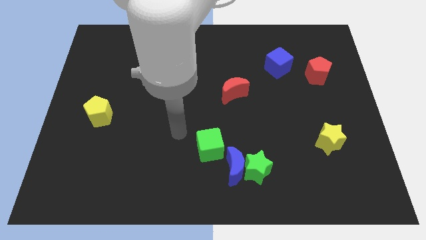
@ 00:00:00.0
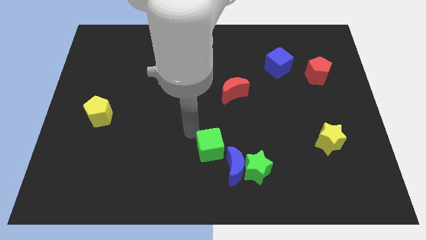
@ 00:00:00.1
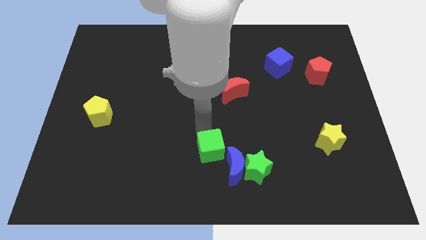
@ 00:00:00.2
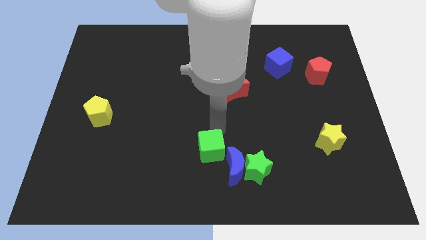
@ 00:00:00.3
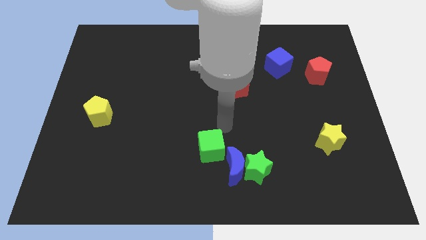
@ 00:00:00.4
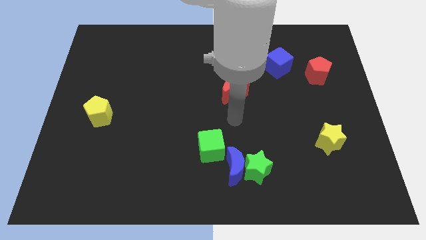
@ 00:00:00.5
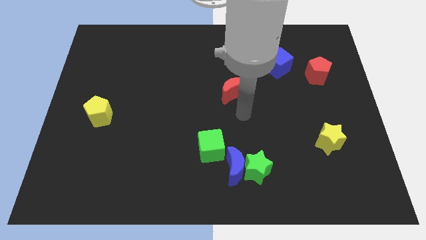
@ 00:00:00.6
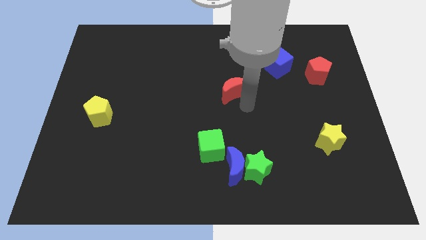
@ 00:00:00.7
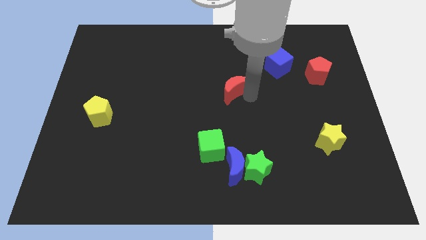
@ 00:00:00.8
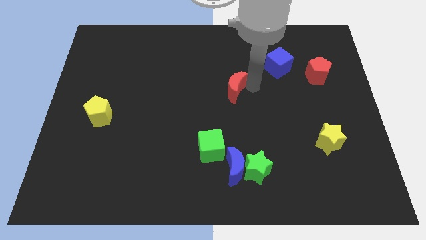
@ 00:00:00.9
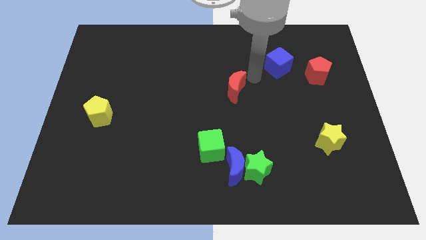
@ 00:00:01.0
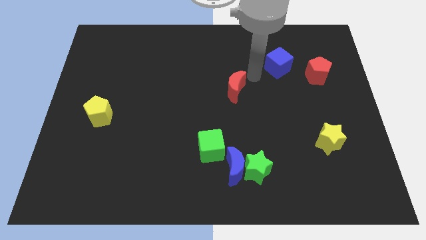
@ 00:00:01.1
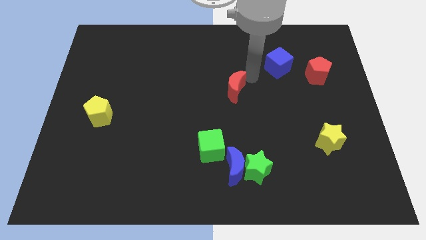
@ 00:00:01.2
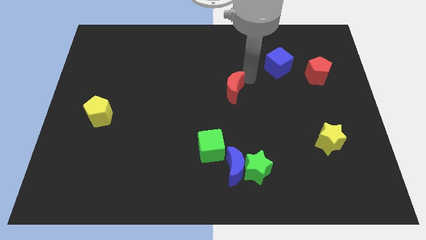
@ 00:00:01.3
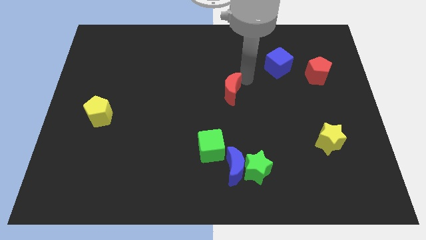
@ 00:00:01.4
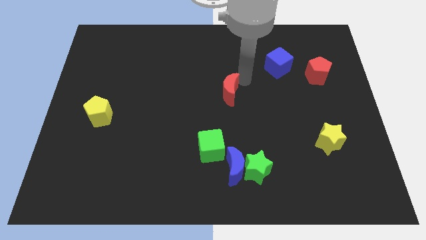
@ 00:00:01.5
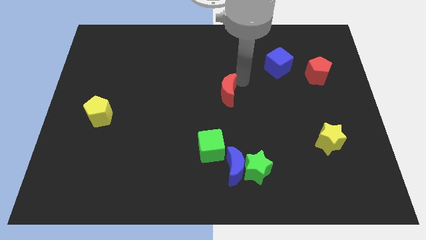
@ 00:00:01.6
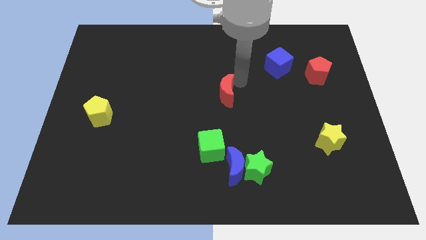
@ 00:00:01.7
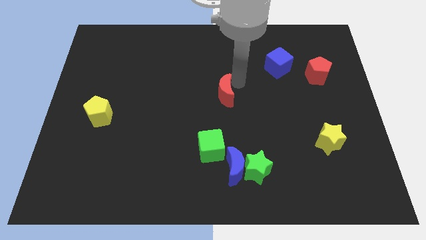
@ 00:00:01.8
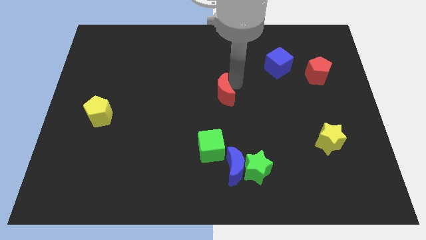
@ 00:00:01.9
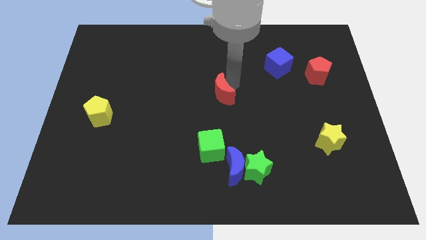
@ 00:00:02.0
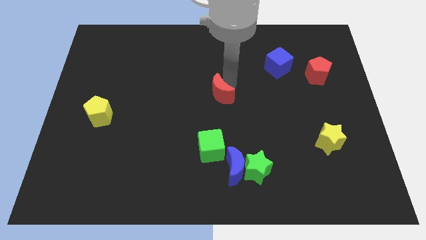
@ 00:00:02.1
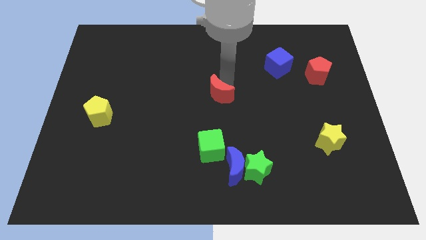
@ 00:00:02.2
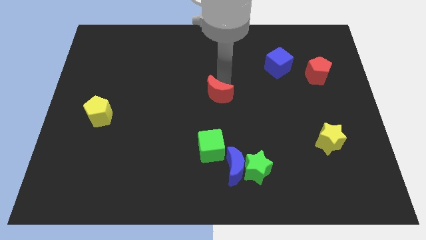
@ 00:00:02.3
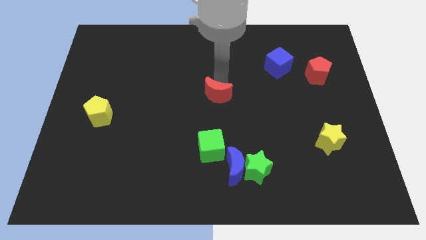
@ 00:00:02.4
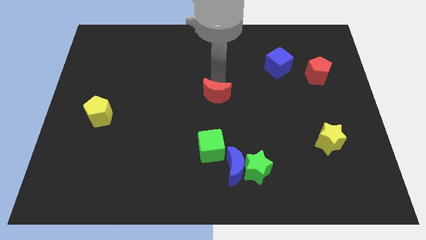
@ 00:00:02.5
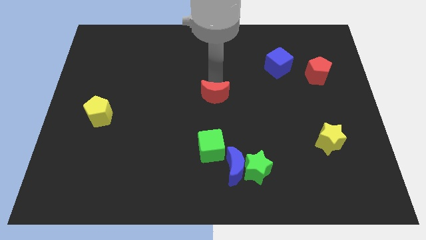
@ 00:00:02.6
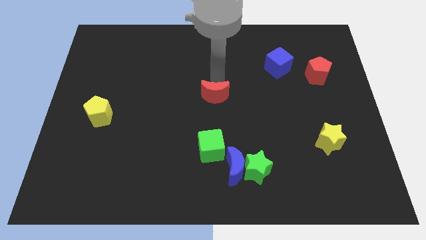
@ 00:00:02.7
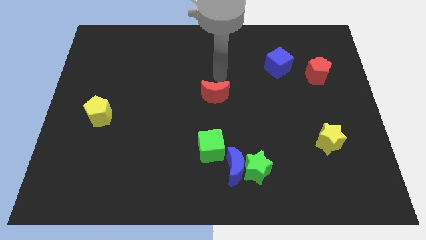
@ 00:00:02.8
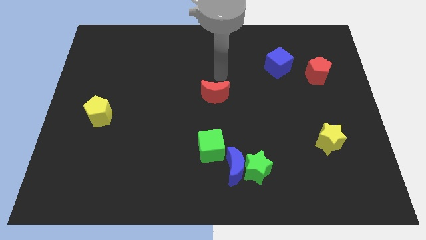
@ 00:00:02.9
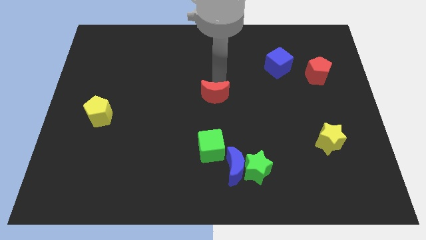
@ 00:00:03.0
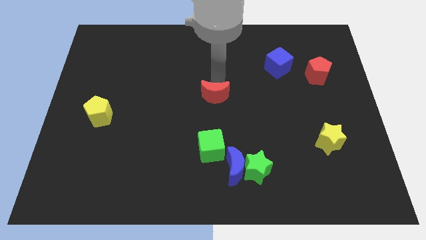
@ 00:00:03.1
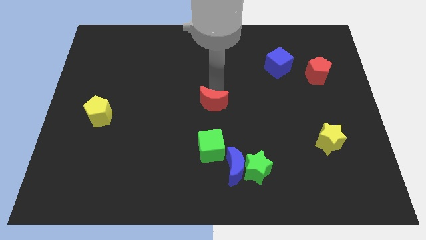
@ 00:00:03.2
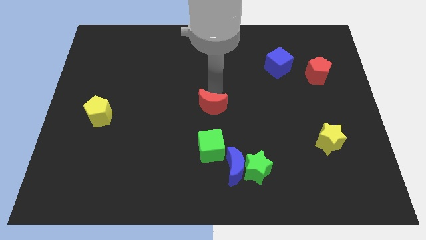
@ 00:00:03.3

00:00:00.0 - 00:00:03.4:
move the red moon diagonally down and to the left a little

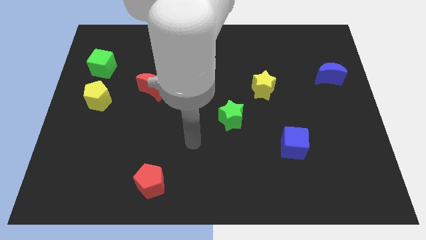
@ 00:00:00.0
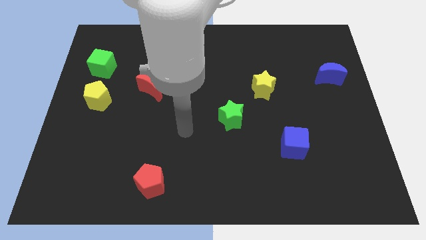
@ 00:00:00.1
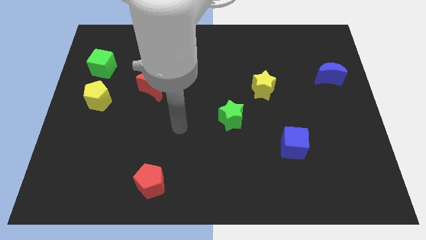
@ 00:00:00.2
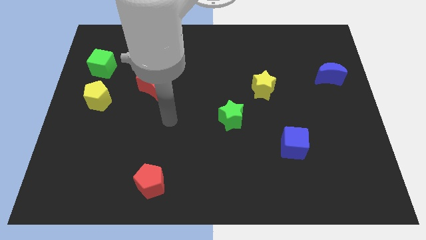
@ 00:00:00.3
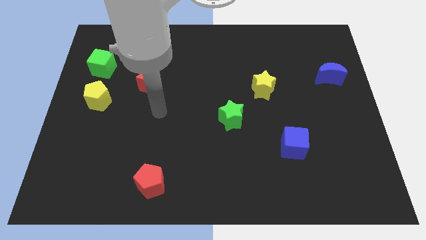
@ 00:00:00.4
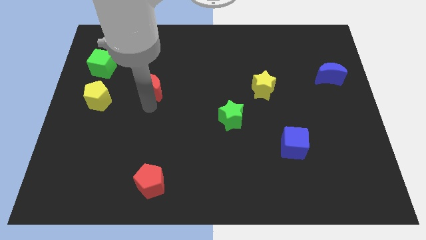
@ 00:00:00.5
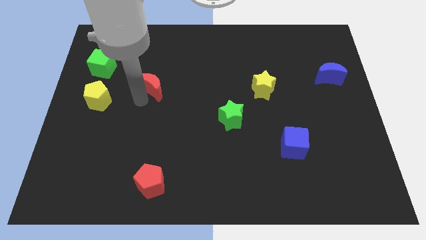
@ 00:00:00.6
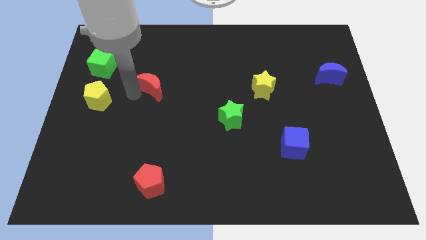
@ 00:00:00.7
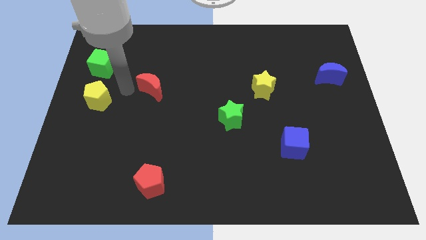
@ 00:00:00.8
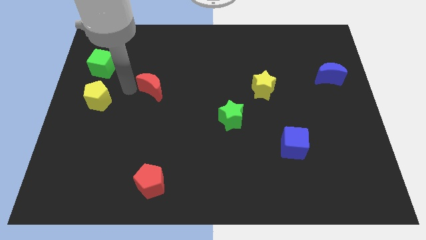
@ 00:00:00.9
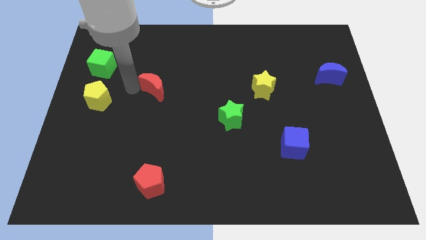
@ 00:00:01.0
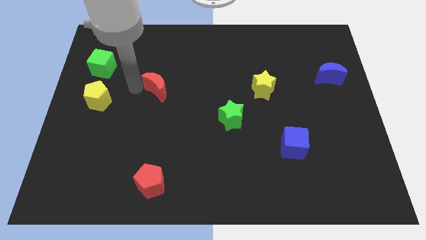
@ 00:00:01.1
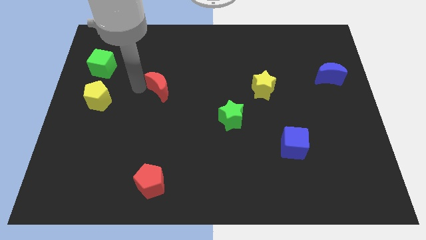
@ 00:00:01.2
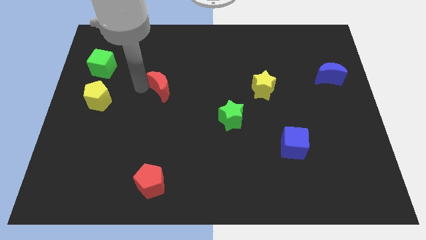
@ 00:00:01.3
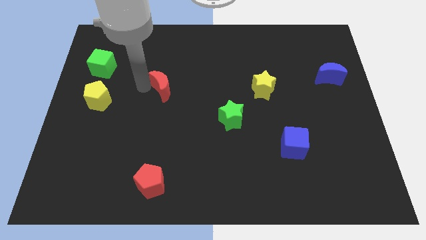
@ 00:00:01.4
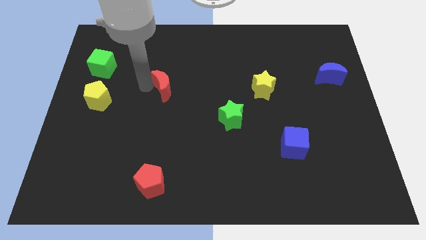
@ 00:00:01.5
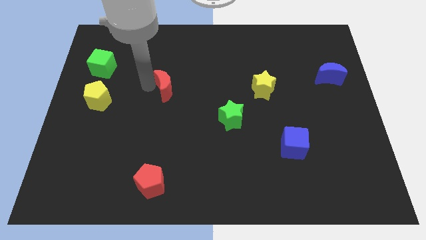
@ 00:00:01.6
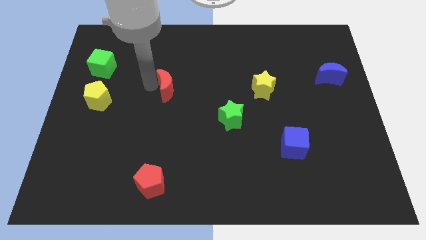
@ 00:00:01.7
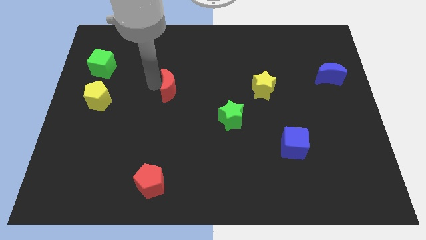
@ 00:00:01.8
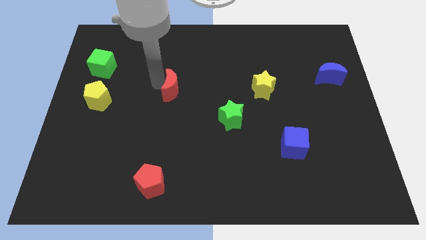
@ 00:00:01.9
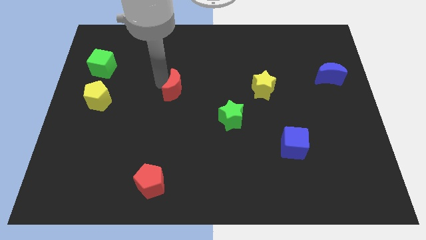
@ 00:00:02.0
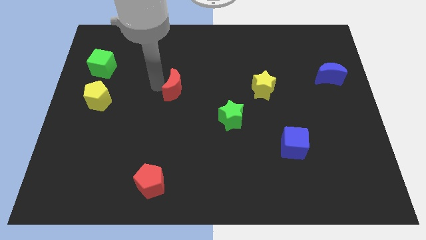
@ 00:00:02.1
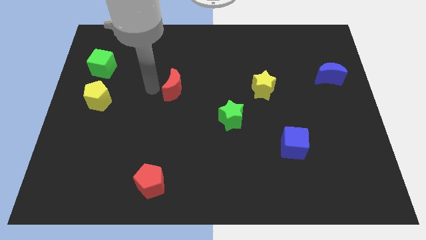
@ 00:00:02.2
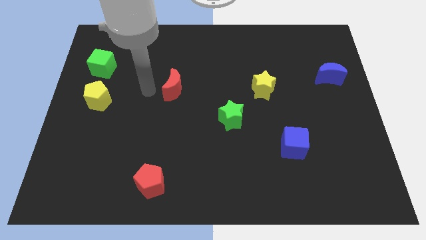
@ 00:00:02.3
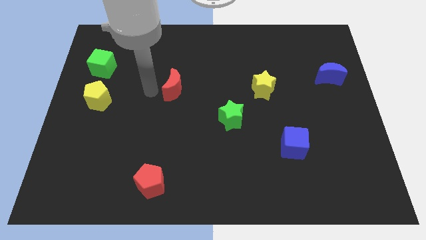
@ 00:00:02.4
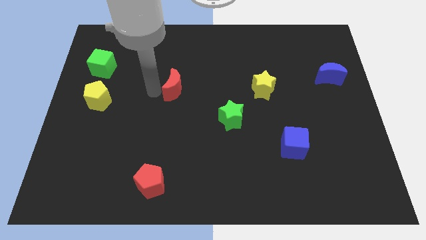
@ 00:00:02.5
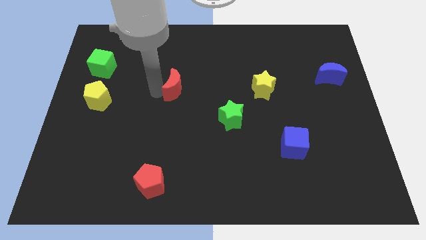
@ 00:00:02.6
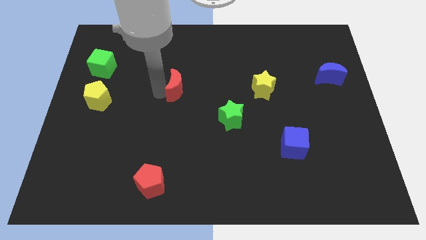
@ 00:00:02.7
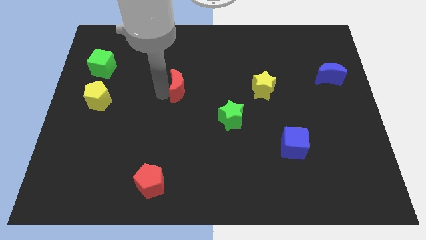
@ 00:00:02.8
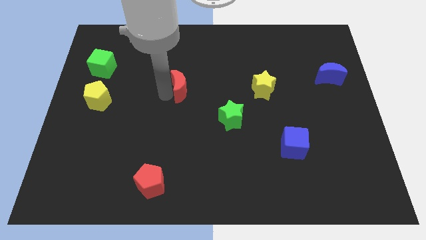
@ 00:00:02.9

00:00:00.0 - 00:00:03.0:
move the red moon a bit to the right

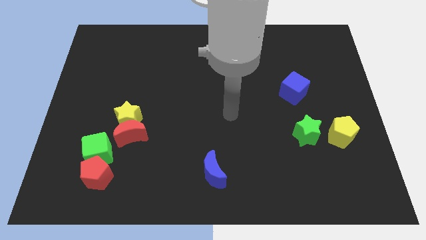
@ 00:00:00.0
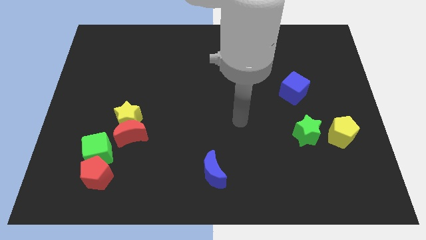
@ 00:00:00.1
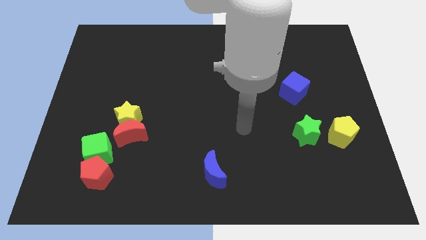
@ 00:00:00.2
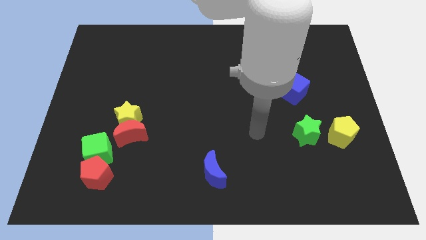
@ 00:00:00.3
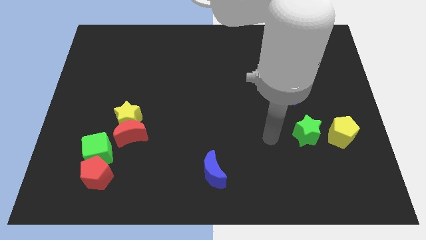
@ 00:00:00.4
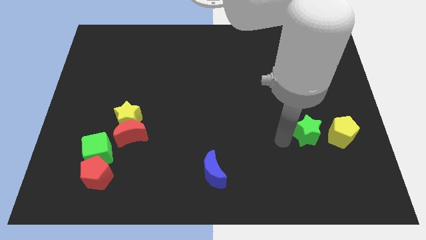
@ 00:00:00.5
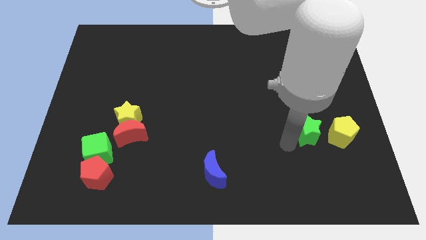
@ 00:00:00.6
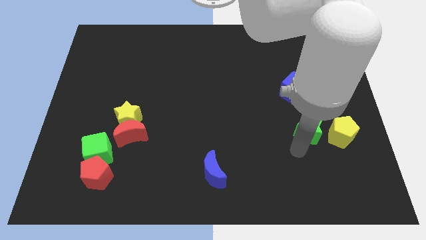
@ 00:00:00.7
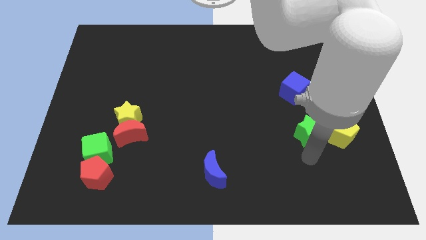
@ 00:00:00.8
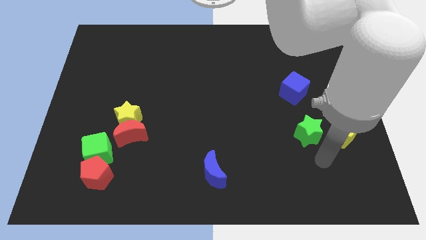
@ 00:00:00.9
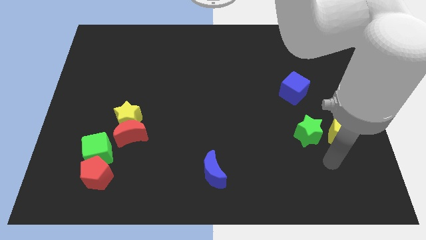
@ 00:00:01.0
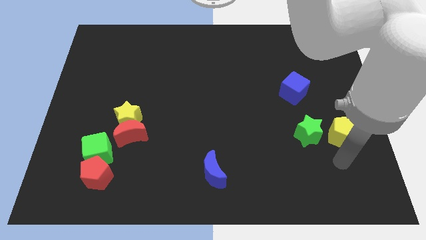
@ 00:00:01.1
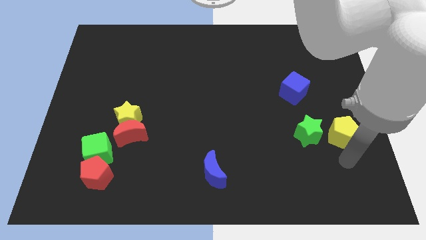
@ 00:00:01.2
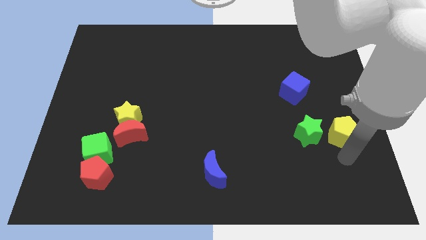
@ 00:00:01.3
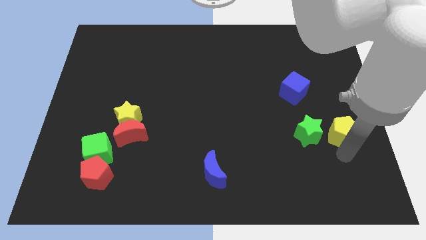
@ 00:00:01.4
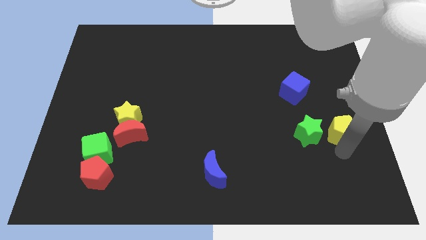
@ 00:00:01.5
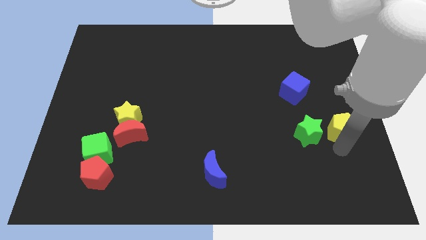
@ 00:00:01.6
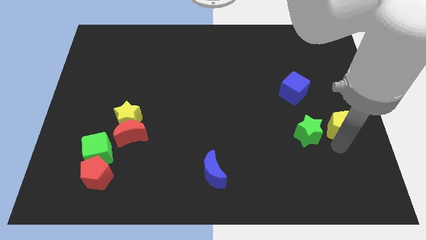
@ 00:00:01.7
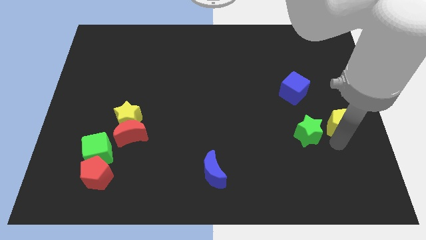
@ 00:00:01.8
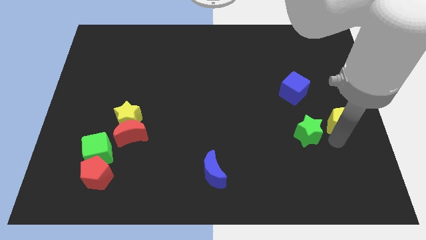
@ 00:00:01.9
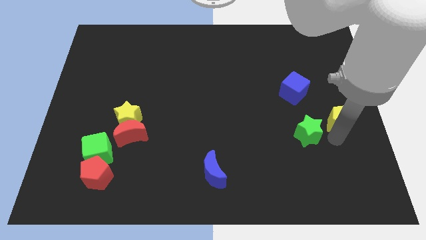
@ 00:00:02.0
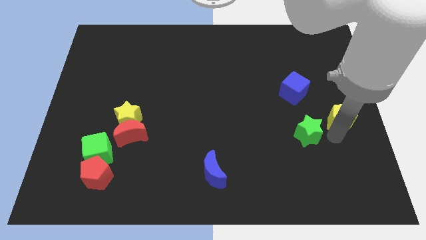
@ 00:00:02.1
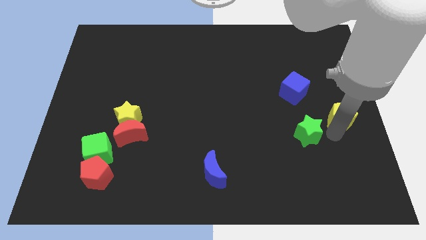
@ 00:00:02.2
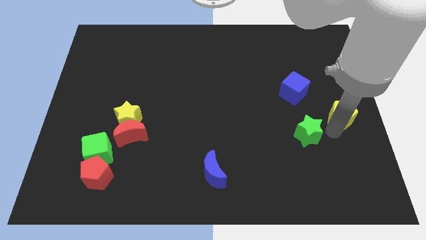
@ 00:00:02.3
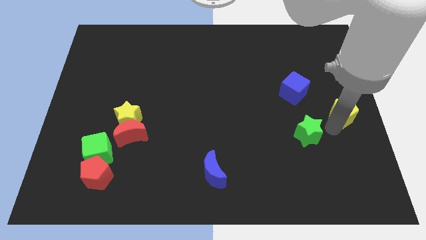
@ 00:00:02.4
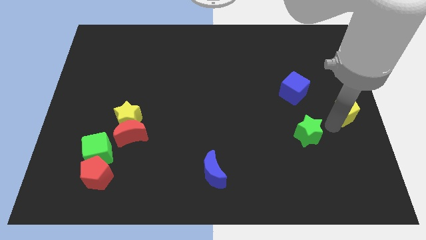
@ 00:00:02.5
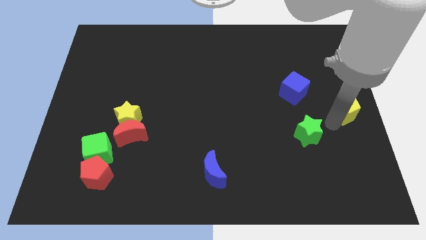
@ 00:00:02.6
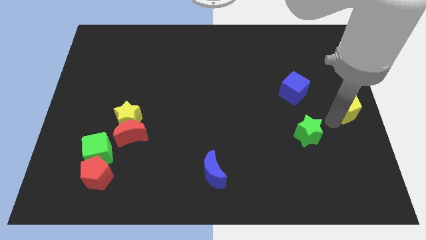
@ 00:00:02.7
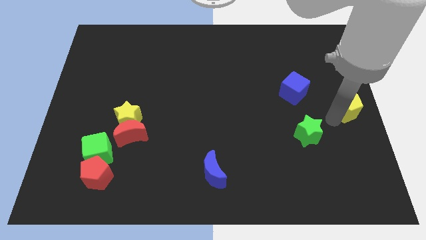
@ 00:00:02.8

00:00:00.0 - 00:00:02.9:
move the yellow pentagon slightly upwards
